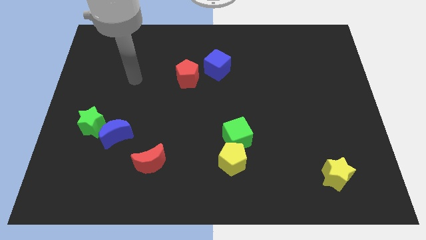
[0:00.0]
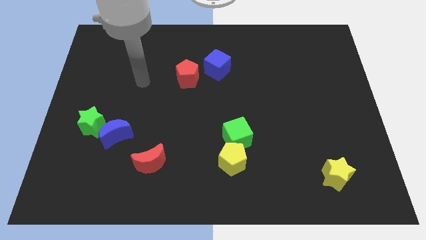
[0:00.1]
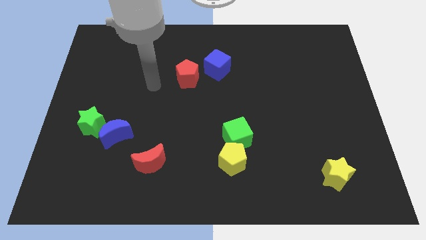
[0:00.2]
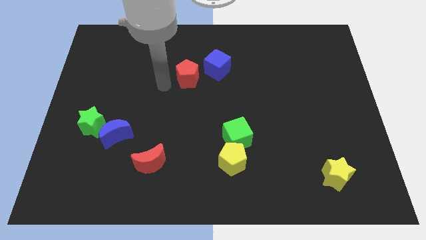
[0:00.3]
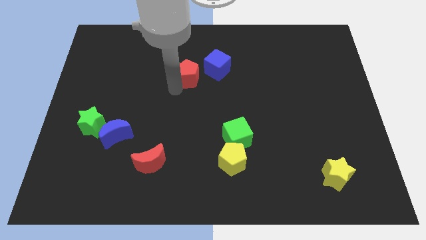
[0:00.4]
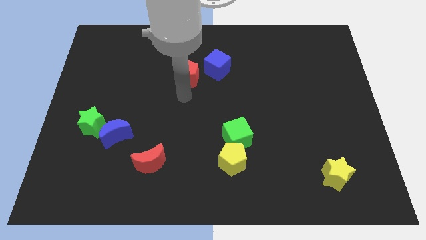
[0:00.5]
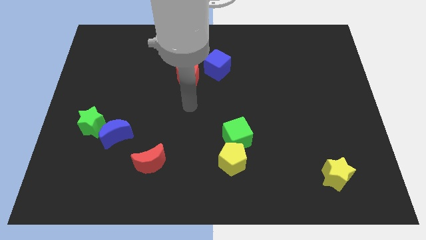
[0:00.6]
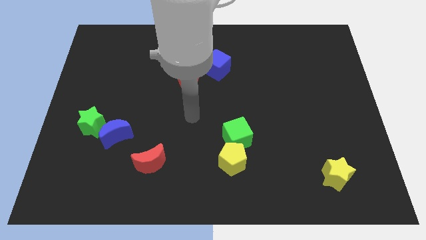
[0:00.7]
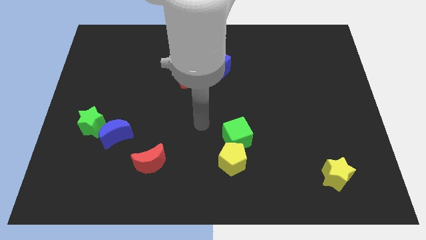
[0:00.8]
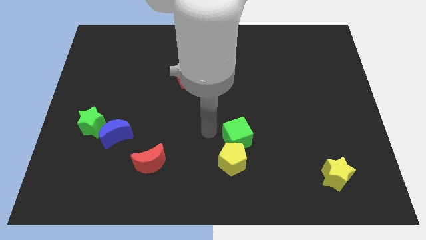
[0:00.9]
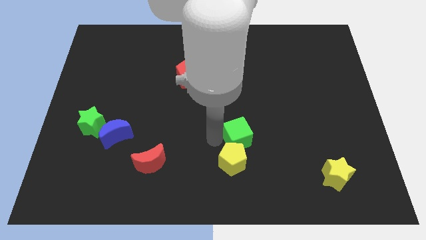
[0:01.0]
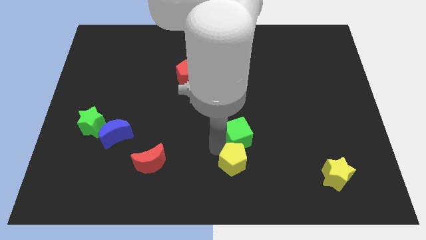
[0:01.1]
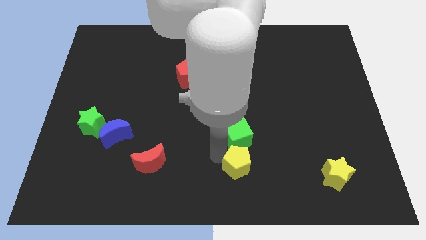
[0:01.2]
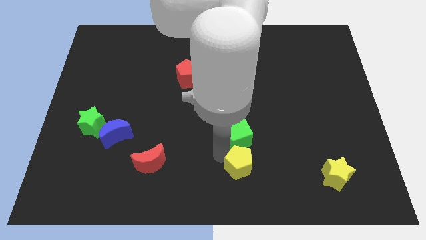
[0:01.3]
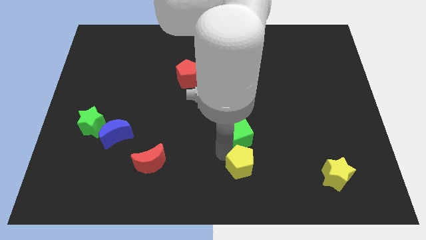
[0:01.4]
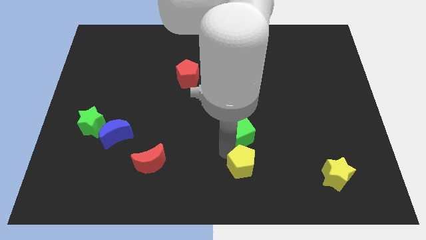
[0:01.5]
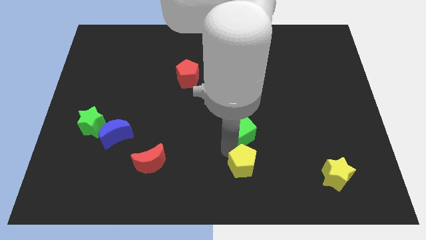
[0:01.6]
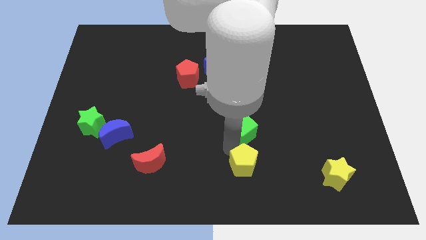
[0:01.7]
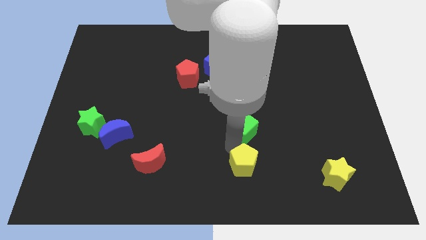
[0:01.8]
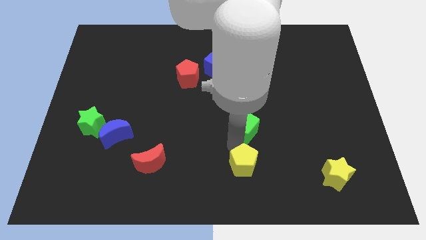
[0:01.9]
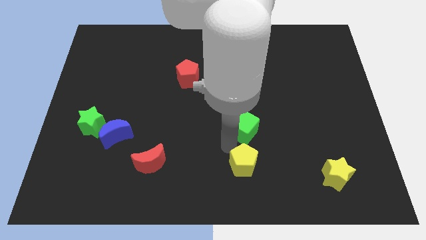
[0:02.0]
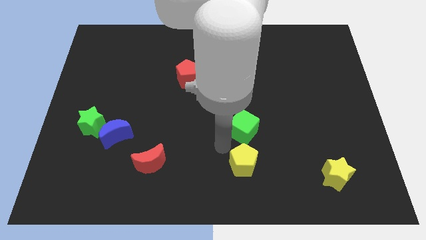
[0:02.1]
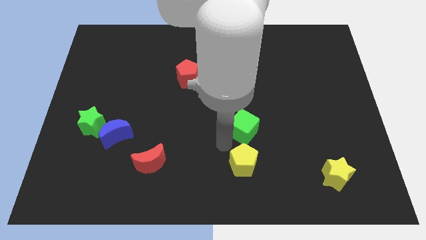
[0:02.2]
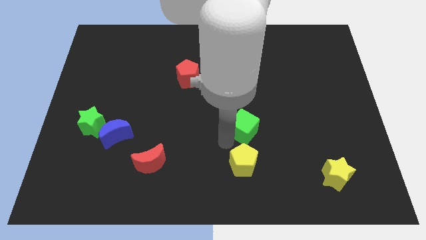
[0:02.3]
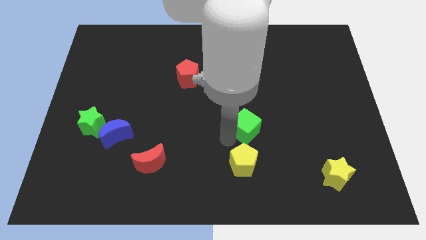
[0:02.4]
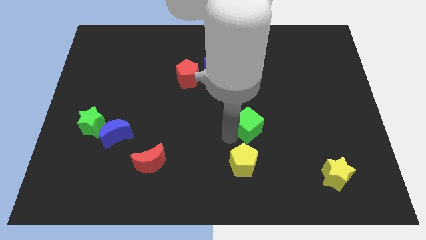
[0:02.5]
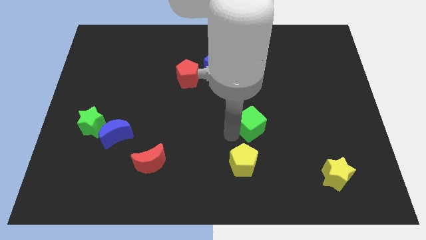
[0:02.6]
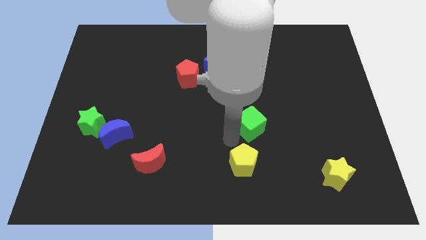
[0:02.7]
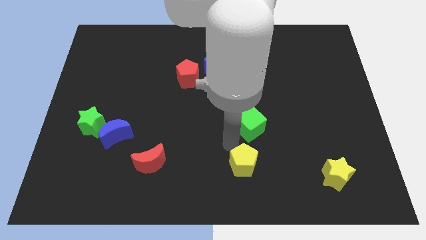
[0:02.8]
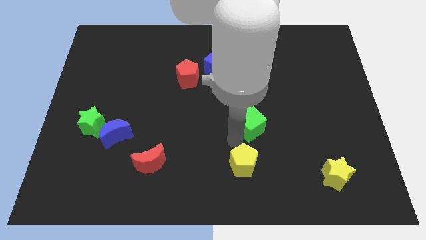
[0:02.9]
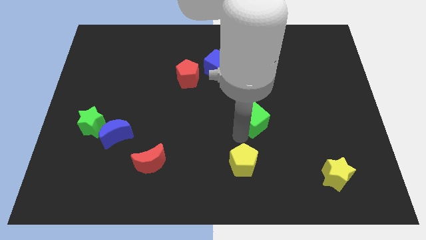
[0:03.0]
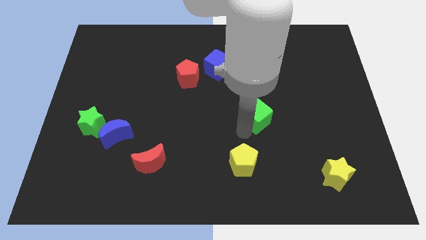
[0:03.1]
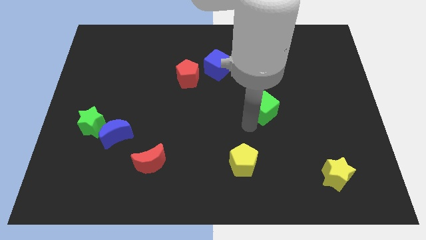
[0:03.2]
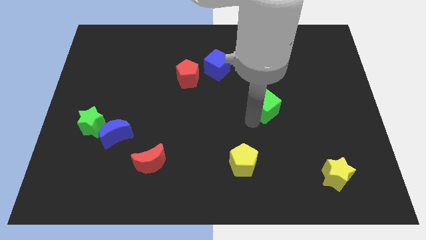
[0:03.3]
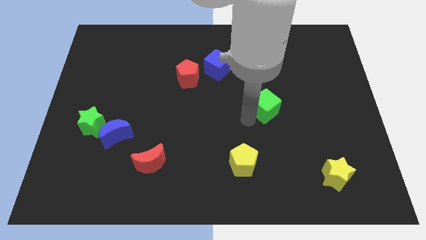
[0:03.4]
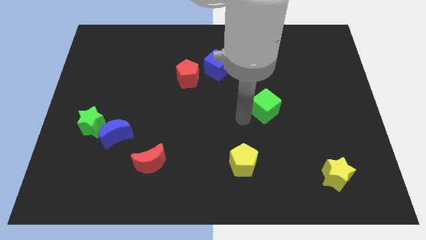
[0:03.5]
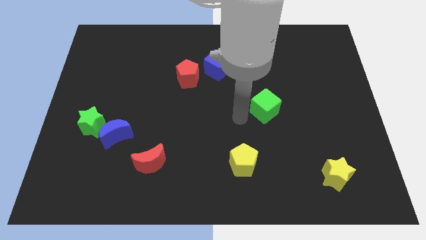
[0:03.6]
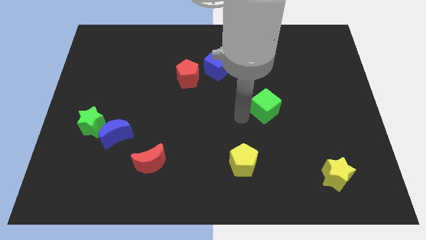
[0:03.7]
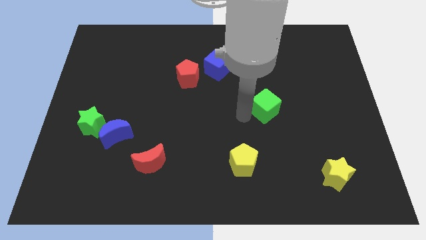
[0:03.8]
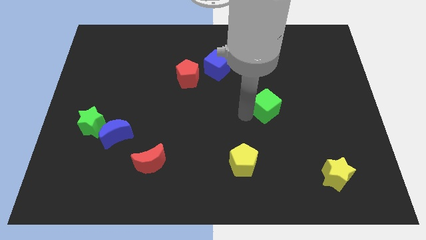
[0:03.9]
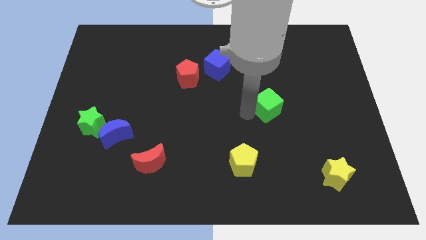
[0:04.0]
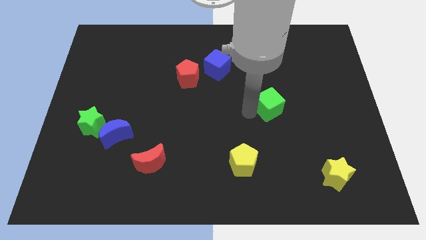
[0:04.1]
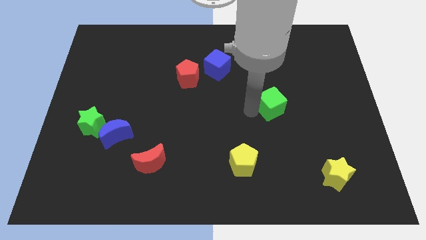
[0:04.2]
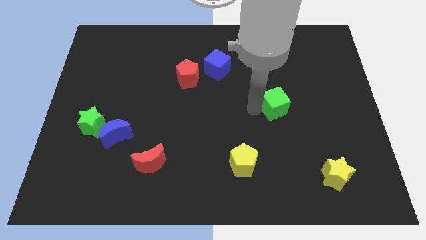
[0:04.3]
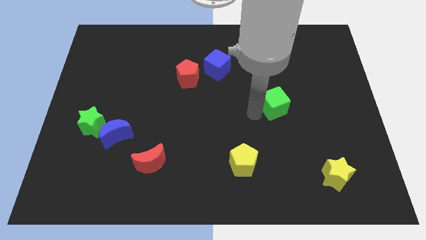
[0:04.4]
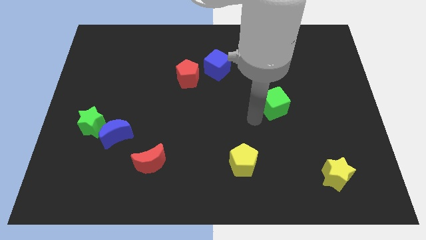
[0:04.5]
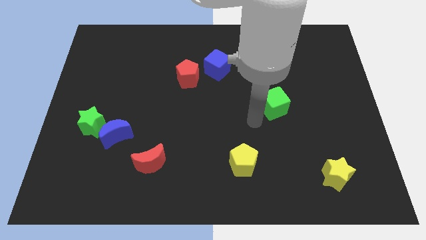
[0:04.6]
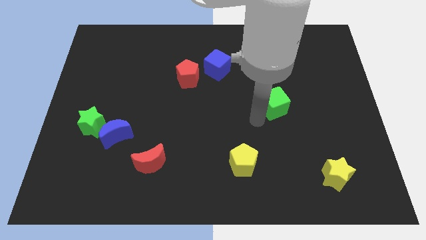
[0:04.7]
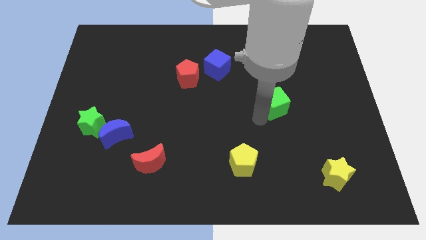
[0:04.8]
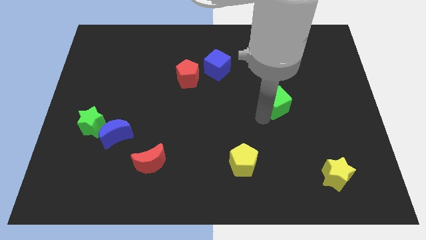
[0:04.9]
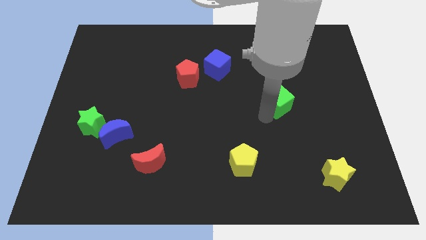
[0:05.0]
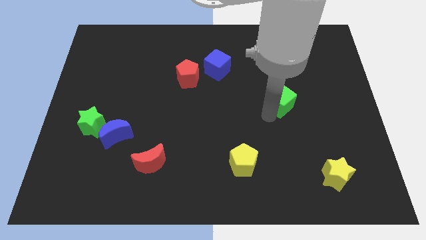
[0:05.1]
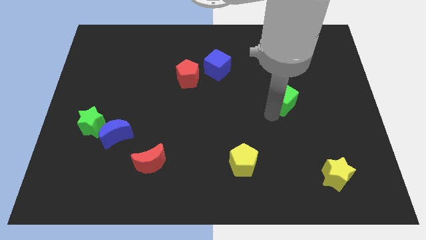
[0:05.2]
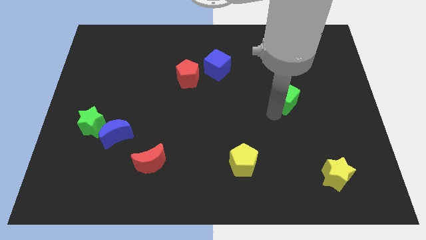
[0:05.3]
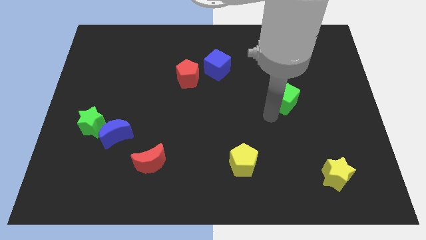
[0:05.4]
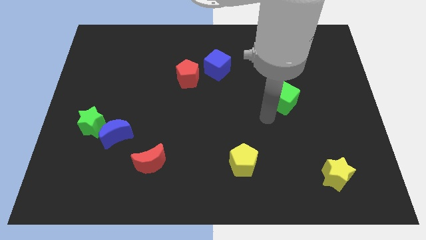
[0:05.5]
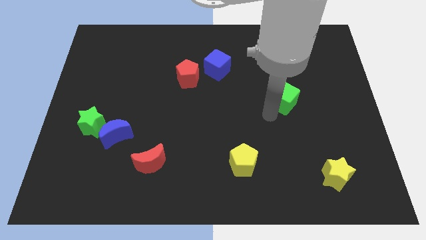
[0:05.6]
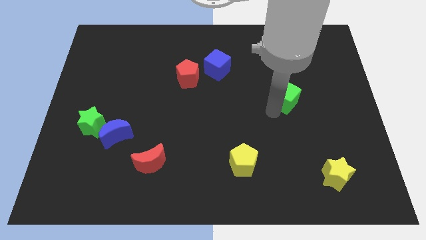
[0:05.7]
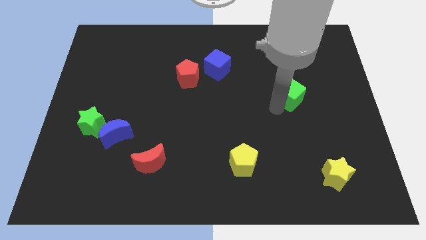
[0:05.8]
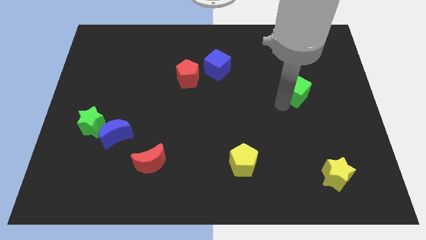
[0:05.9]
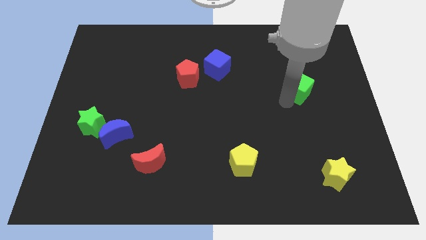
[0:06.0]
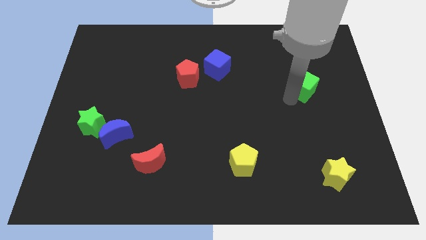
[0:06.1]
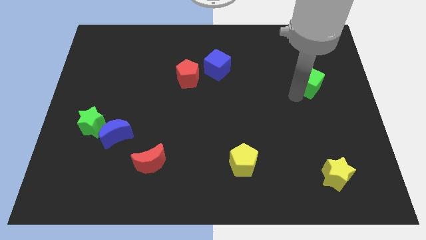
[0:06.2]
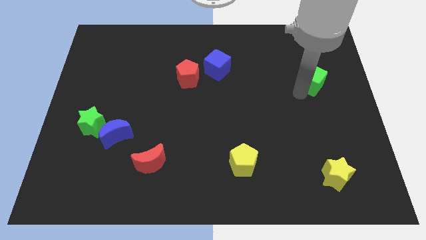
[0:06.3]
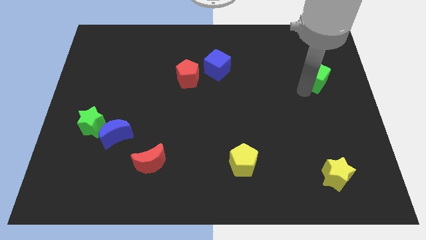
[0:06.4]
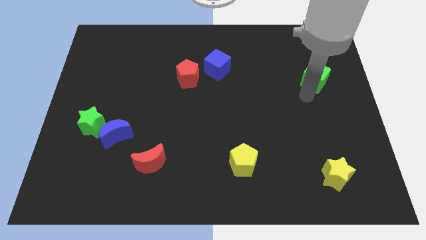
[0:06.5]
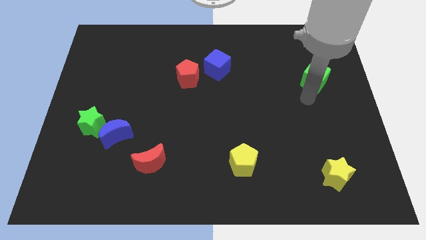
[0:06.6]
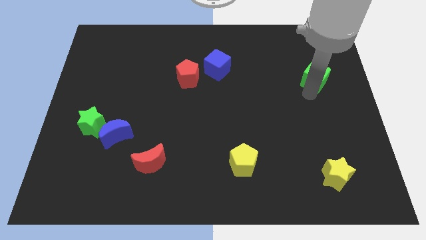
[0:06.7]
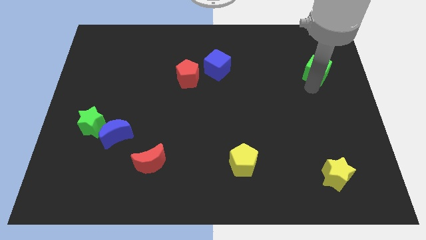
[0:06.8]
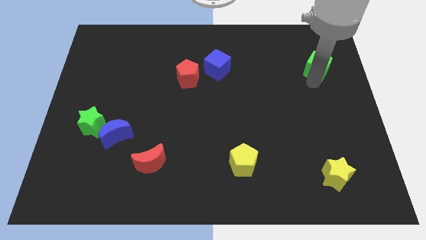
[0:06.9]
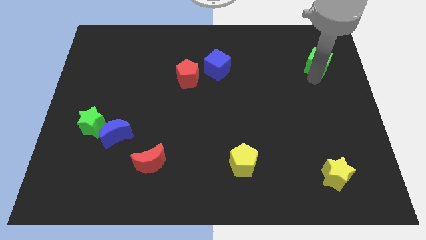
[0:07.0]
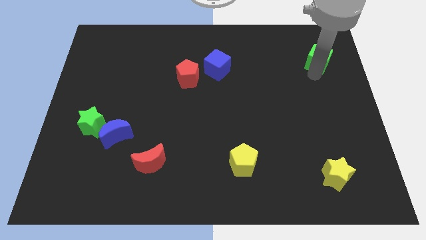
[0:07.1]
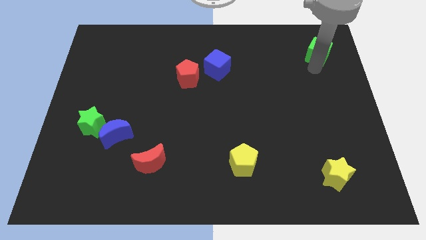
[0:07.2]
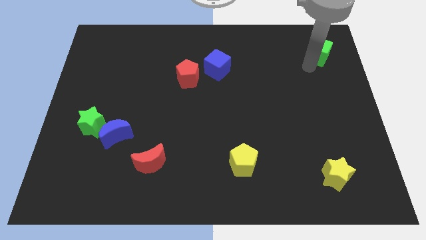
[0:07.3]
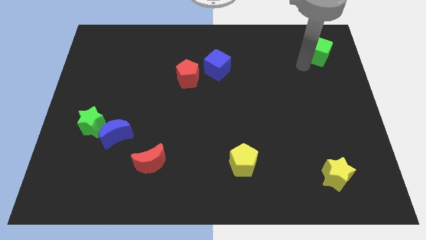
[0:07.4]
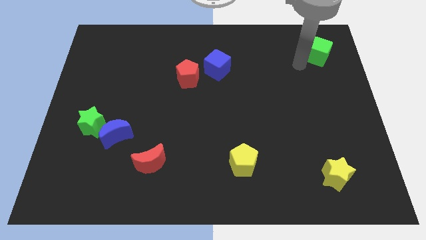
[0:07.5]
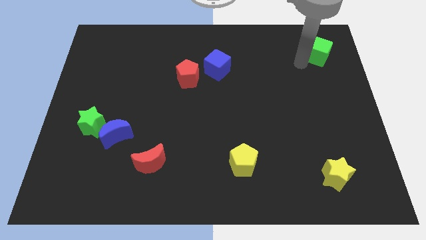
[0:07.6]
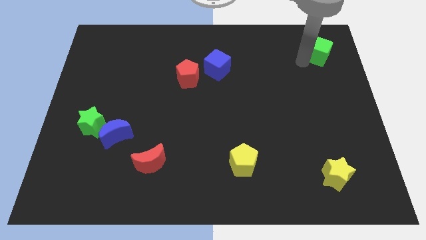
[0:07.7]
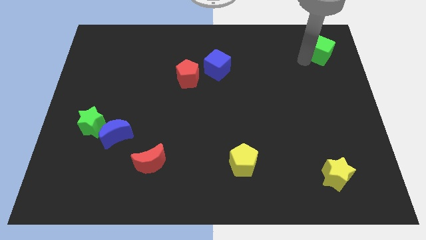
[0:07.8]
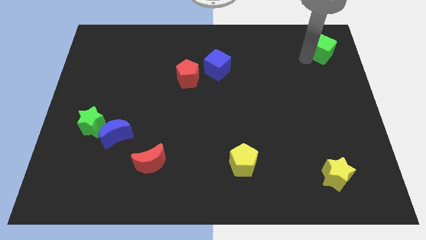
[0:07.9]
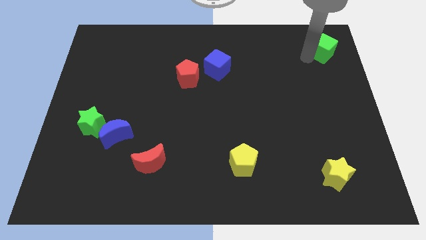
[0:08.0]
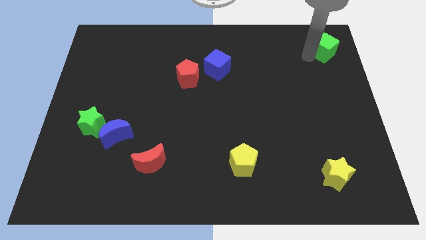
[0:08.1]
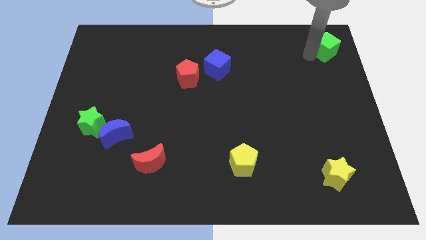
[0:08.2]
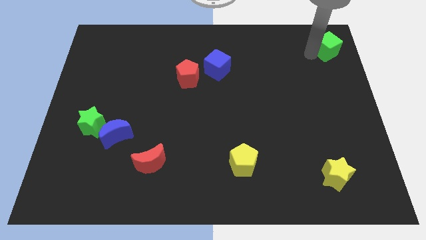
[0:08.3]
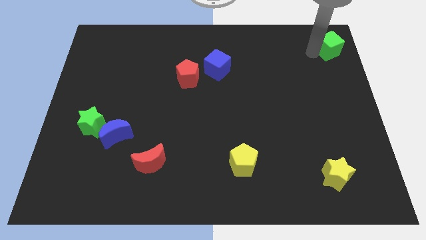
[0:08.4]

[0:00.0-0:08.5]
push the green cube to the top right of the board
